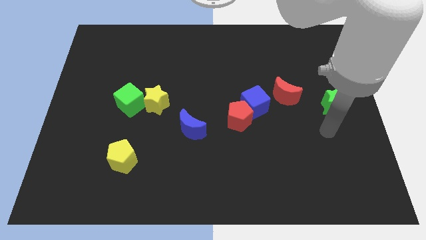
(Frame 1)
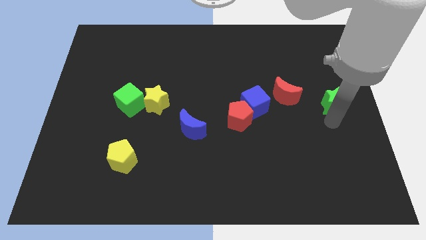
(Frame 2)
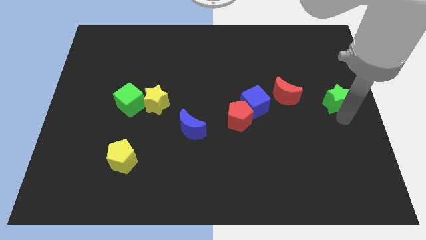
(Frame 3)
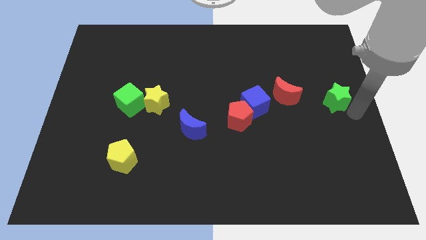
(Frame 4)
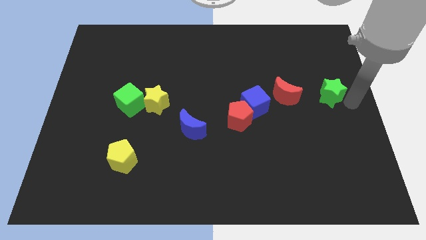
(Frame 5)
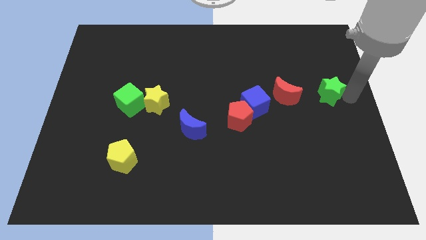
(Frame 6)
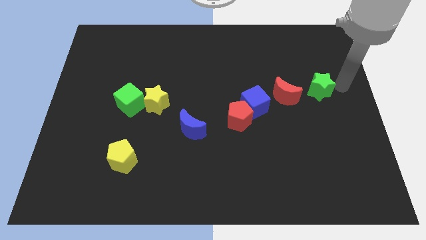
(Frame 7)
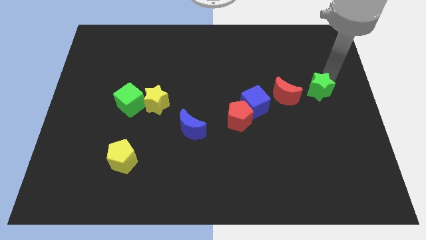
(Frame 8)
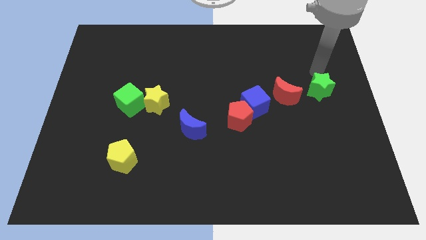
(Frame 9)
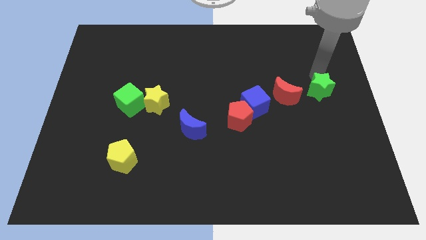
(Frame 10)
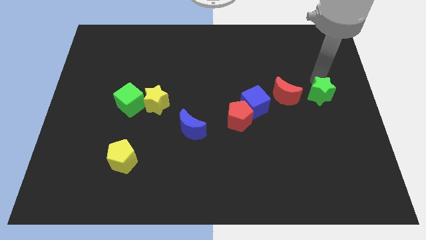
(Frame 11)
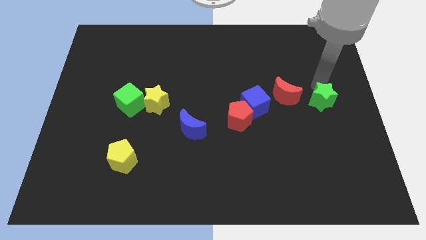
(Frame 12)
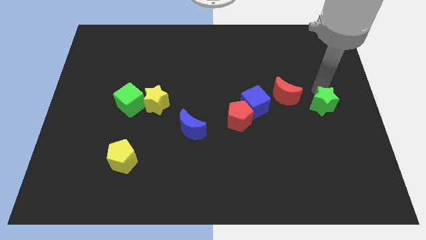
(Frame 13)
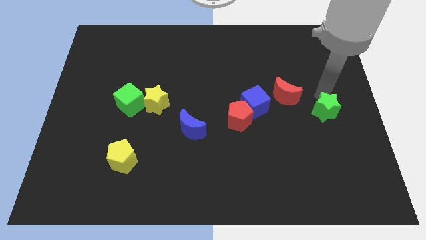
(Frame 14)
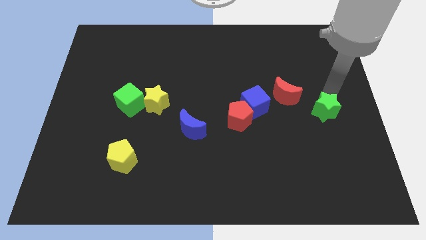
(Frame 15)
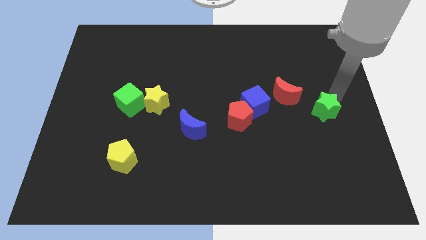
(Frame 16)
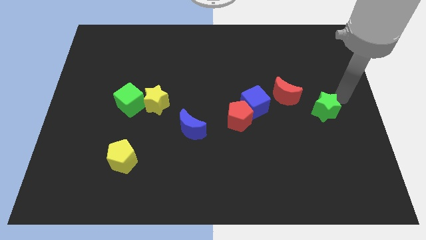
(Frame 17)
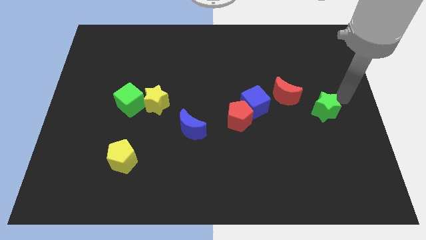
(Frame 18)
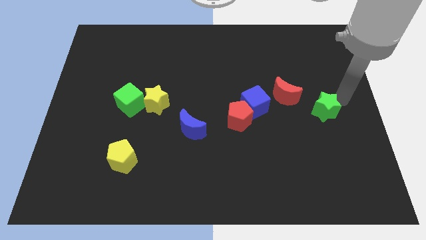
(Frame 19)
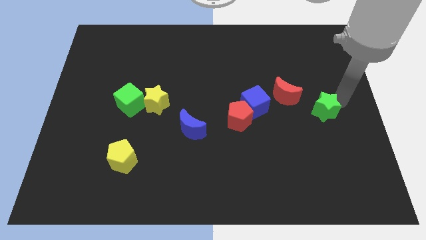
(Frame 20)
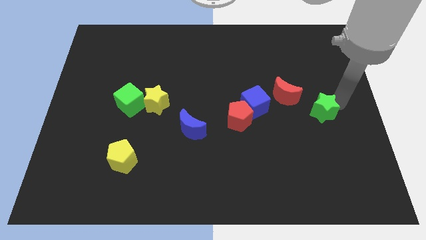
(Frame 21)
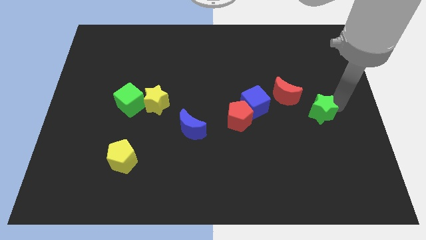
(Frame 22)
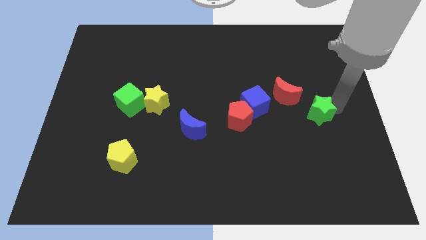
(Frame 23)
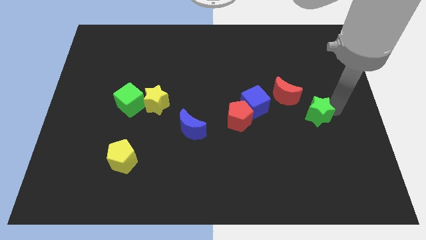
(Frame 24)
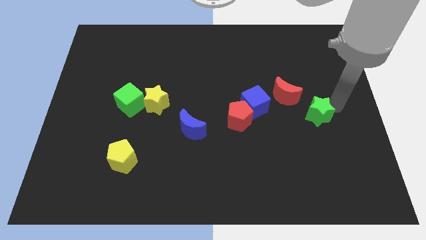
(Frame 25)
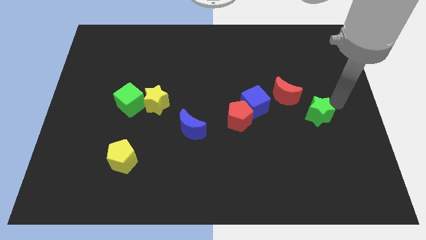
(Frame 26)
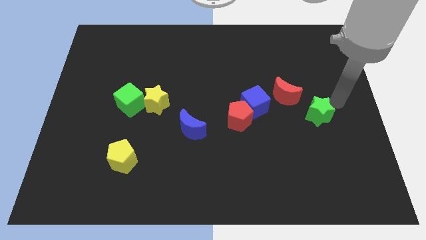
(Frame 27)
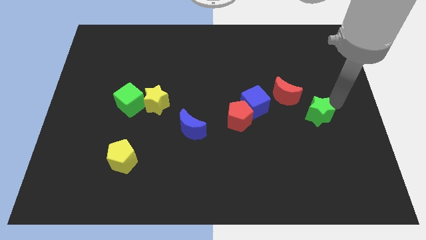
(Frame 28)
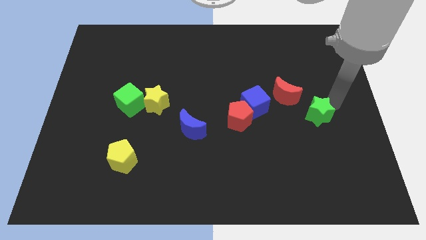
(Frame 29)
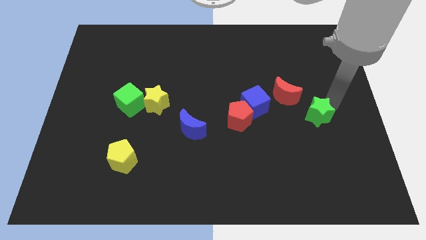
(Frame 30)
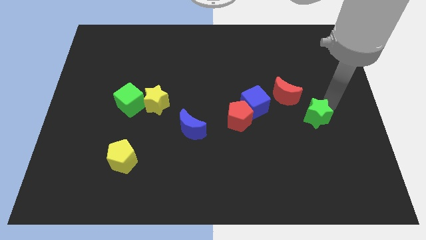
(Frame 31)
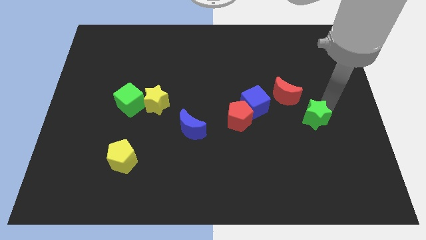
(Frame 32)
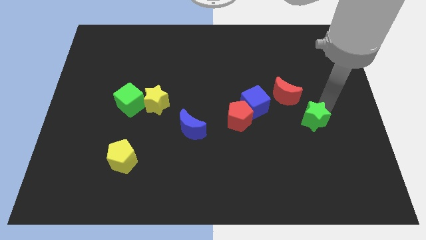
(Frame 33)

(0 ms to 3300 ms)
slightly slide the green star downwards and then left

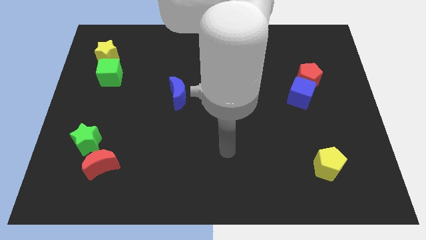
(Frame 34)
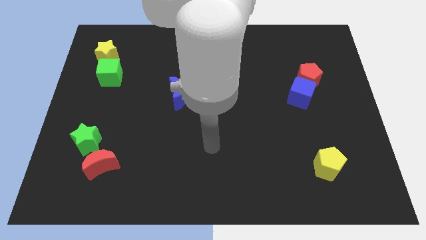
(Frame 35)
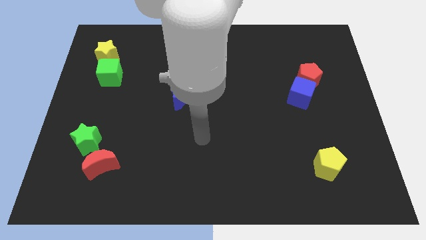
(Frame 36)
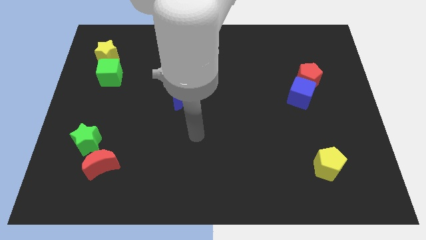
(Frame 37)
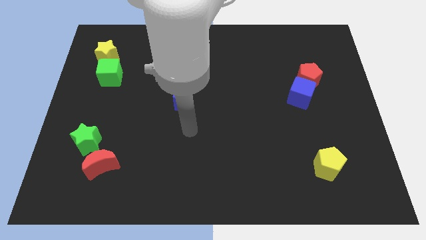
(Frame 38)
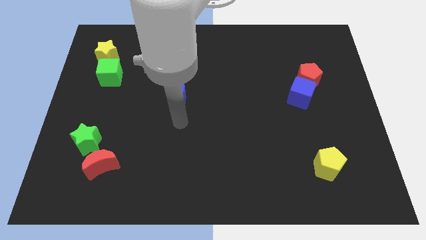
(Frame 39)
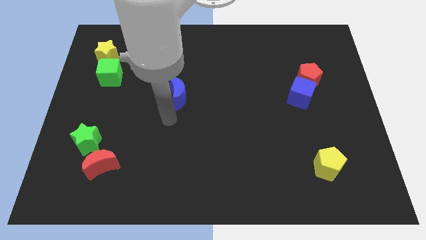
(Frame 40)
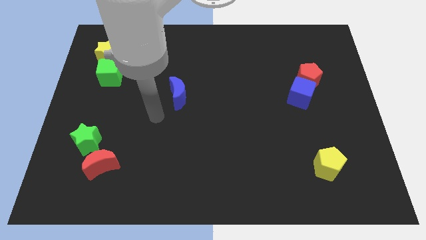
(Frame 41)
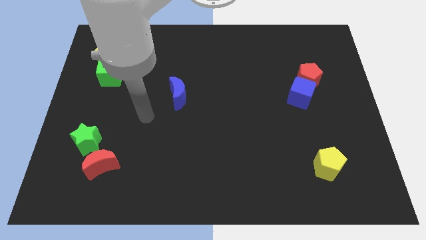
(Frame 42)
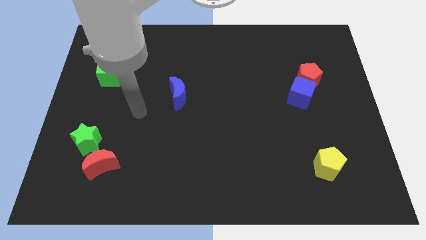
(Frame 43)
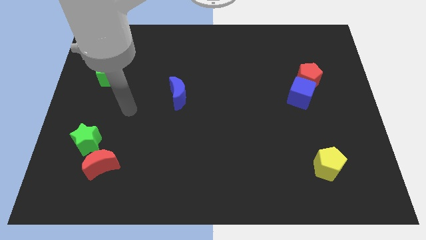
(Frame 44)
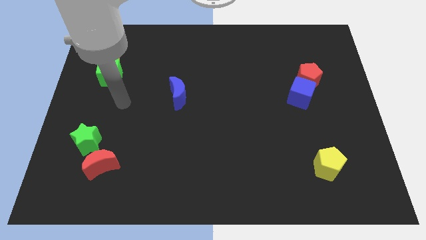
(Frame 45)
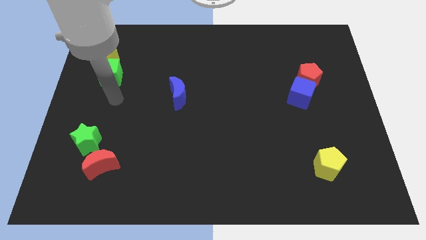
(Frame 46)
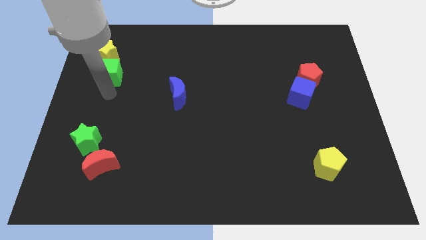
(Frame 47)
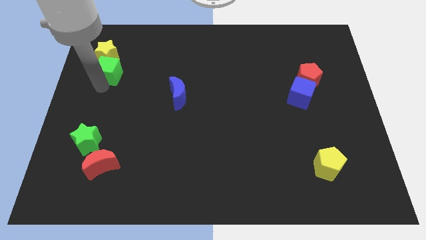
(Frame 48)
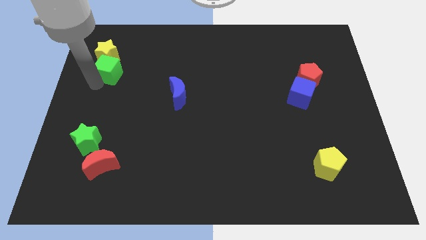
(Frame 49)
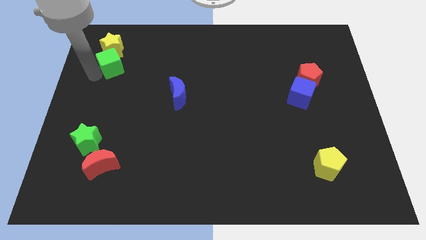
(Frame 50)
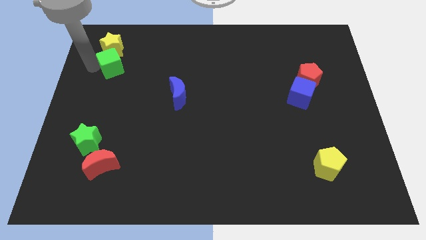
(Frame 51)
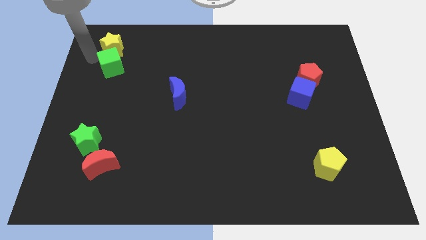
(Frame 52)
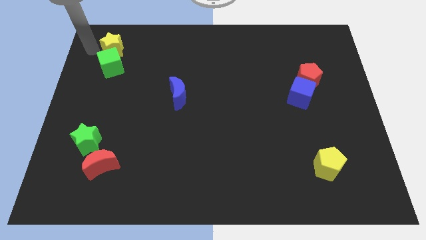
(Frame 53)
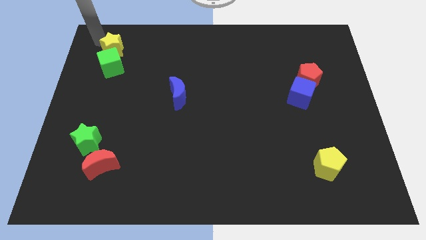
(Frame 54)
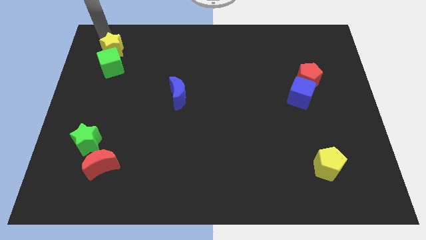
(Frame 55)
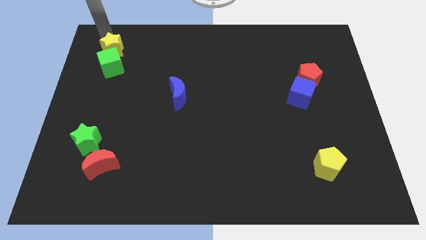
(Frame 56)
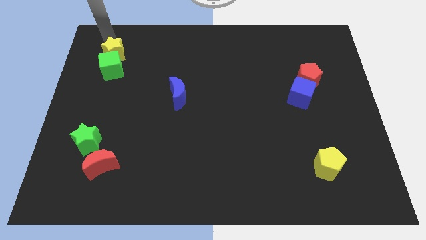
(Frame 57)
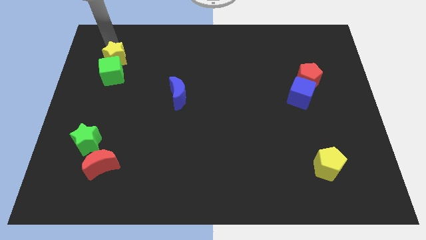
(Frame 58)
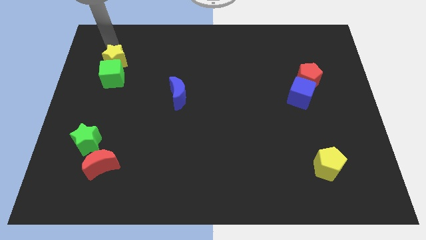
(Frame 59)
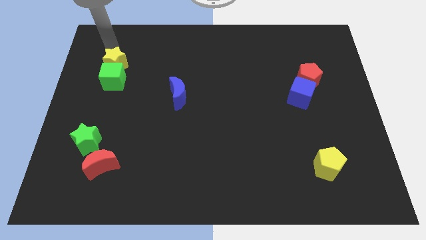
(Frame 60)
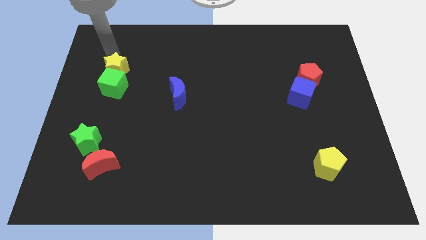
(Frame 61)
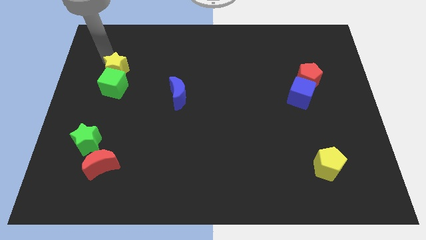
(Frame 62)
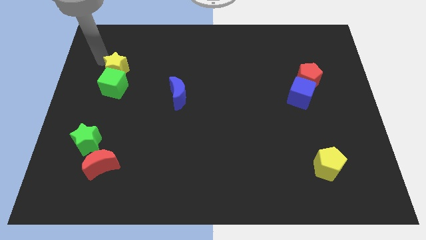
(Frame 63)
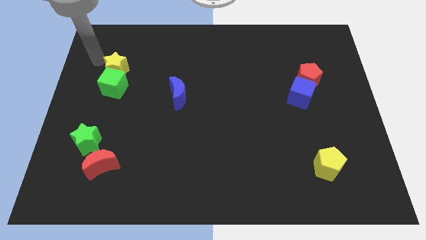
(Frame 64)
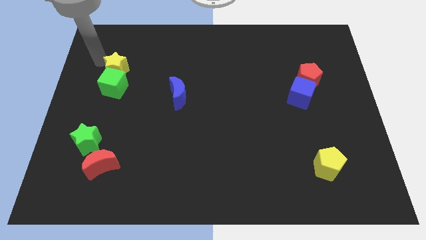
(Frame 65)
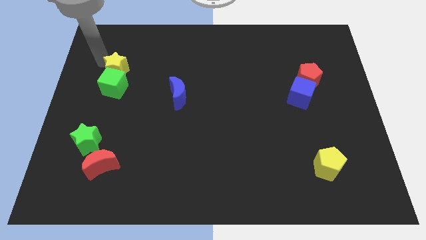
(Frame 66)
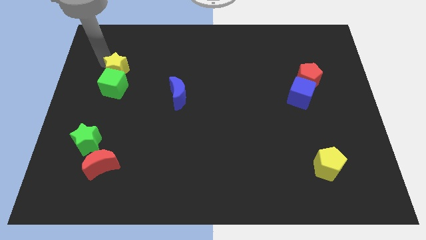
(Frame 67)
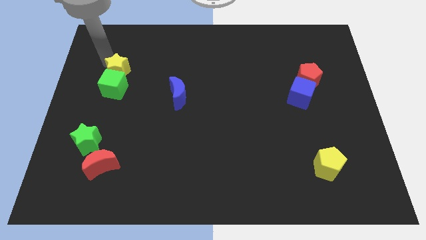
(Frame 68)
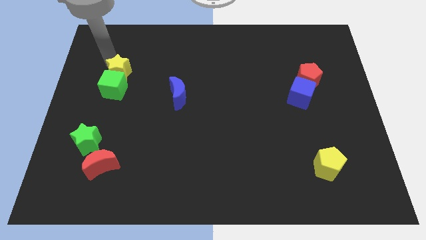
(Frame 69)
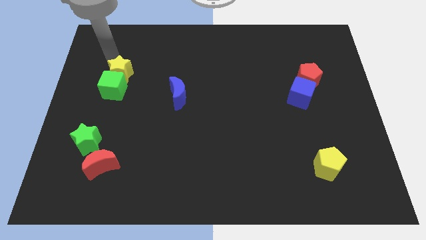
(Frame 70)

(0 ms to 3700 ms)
push the yellow star down and to the right diagonally a bit

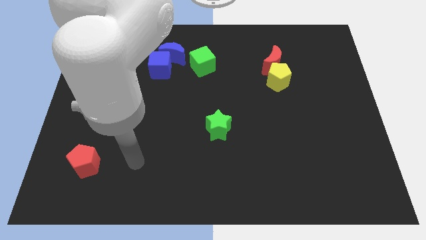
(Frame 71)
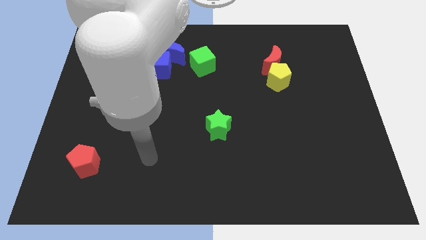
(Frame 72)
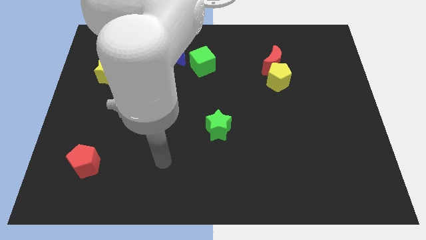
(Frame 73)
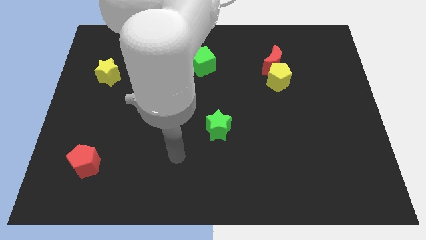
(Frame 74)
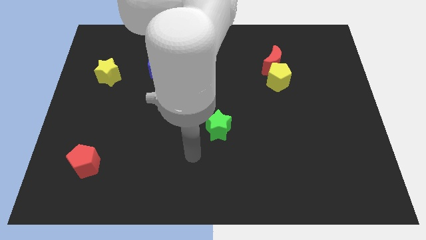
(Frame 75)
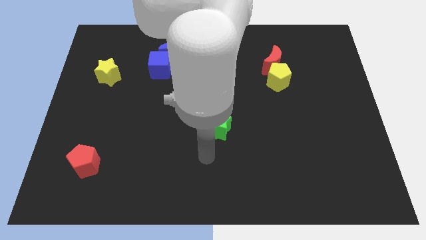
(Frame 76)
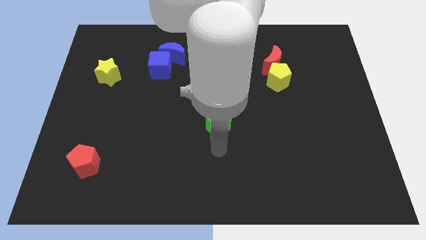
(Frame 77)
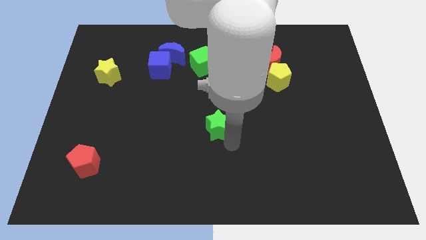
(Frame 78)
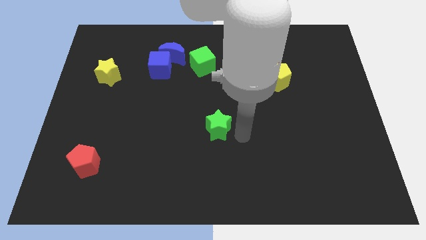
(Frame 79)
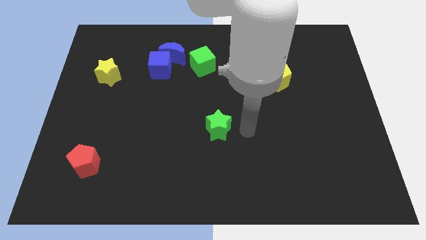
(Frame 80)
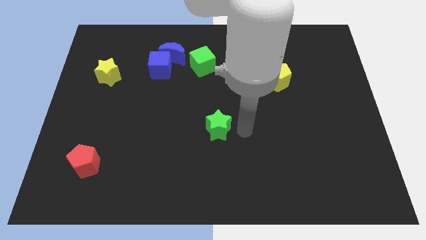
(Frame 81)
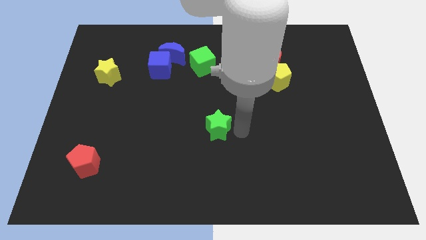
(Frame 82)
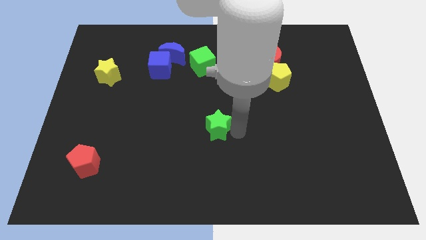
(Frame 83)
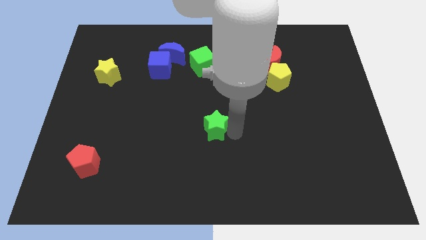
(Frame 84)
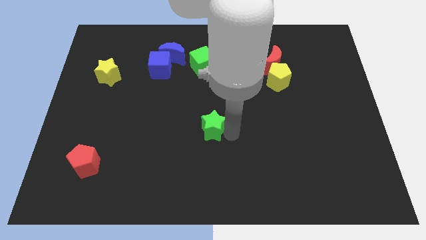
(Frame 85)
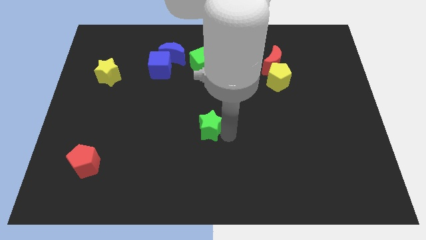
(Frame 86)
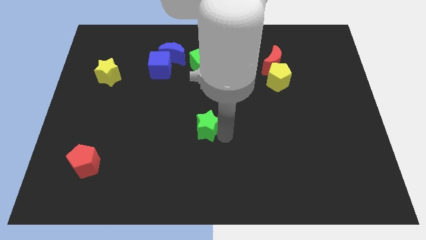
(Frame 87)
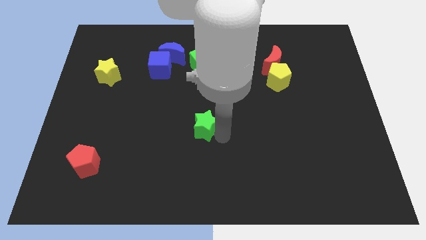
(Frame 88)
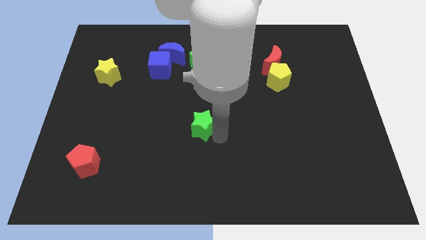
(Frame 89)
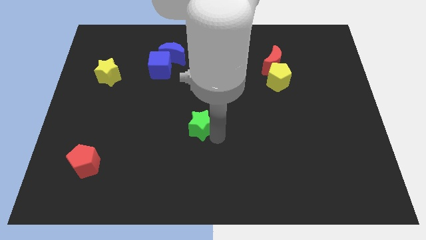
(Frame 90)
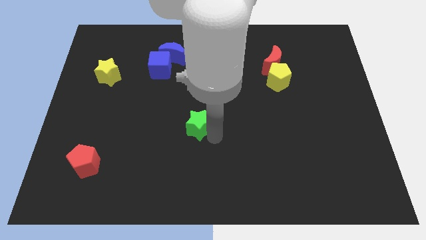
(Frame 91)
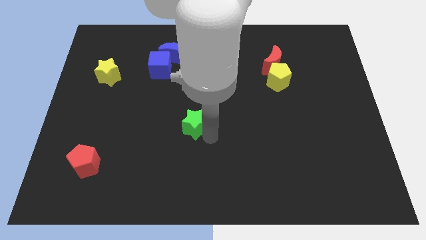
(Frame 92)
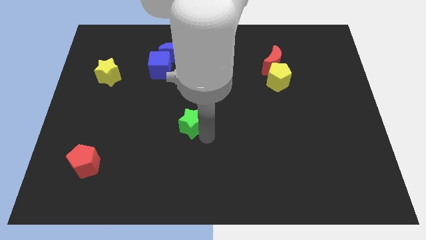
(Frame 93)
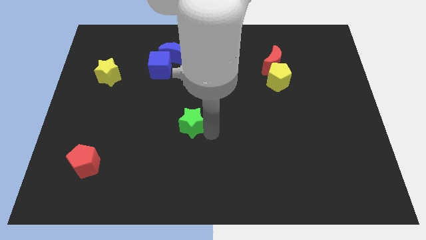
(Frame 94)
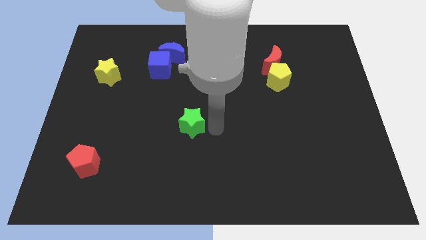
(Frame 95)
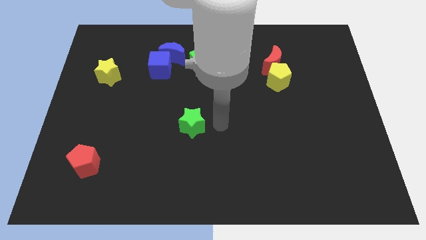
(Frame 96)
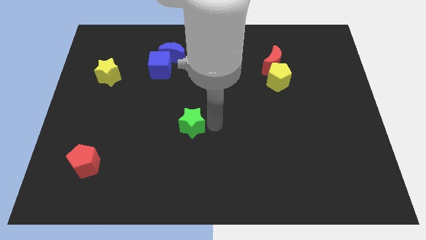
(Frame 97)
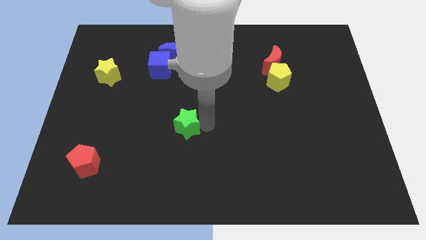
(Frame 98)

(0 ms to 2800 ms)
push the green star a bit to the left
